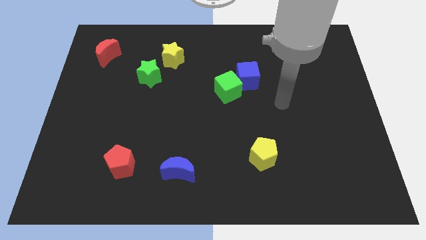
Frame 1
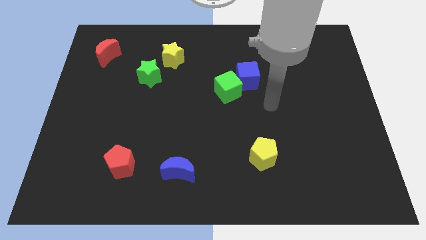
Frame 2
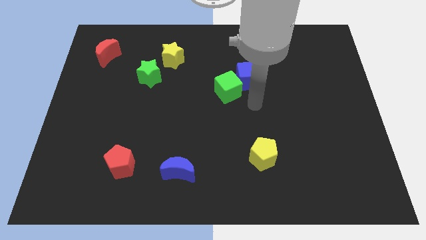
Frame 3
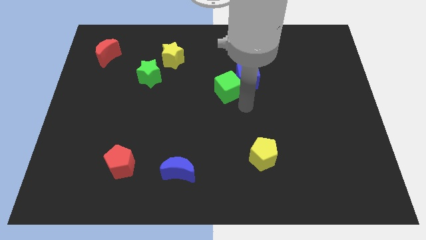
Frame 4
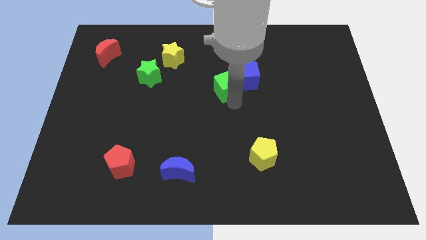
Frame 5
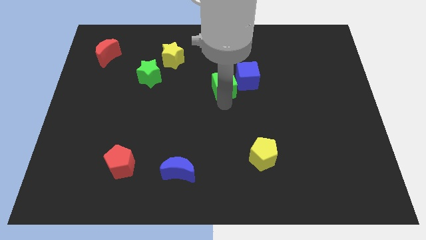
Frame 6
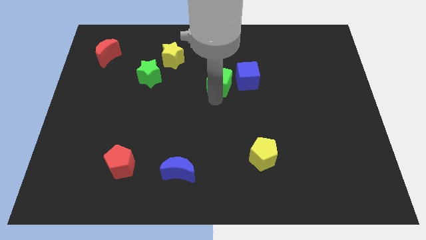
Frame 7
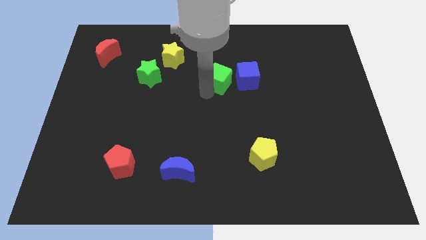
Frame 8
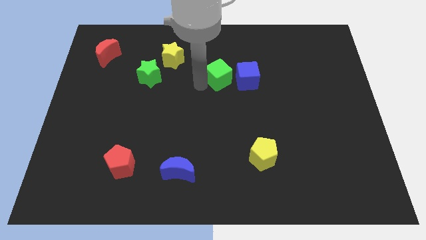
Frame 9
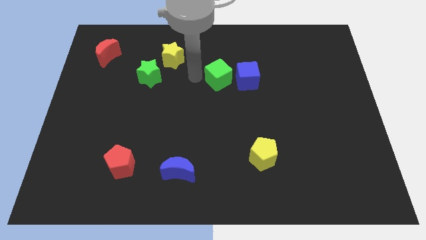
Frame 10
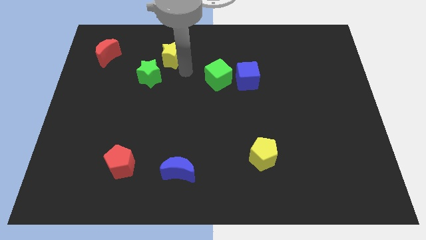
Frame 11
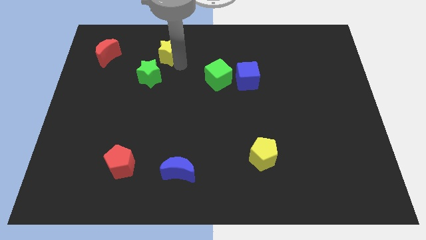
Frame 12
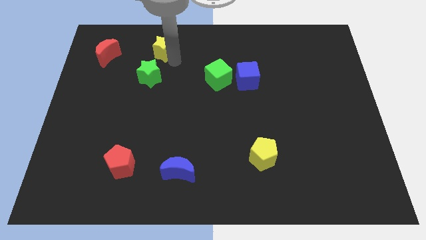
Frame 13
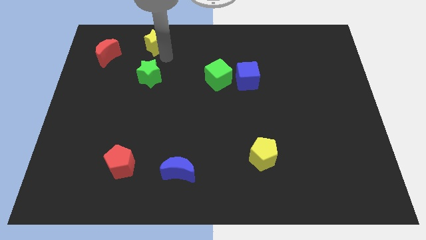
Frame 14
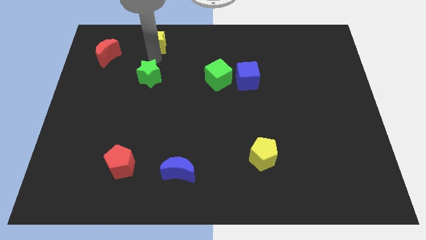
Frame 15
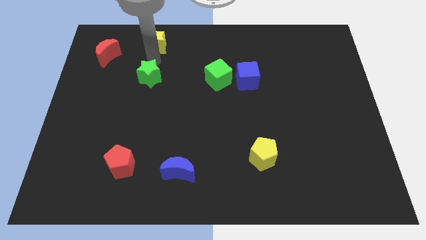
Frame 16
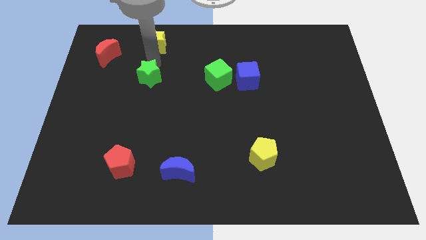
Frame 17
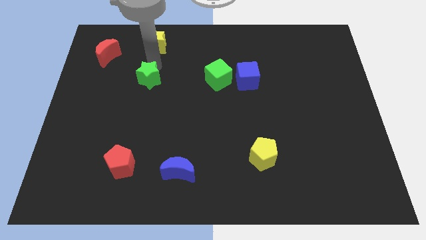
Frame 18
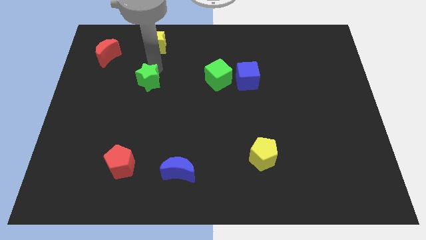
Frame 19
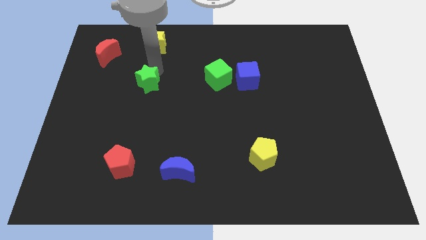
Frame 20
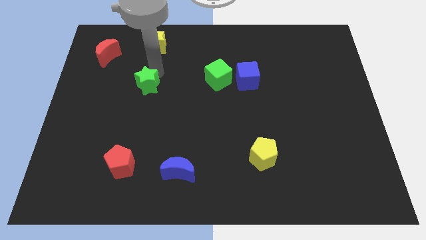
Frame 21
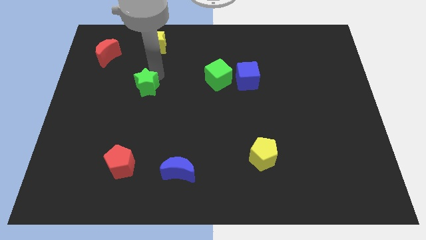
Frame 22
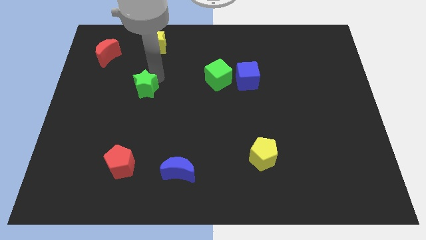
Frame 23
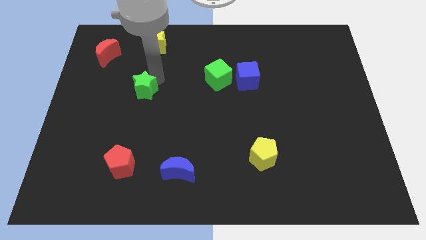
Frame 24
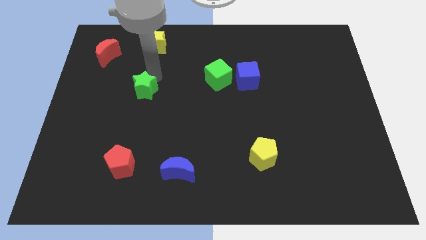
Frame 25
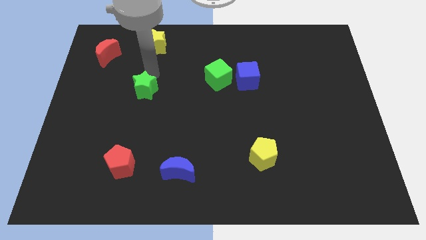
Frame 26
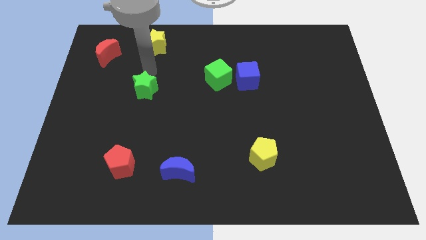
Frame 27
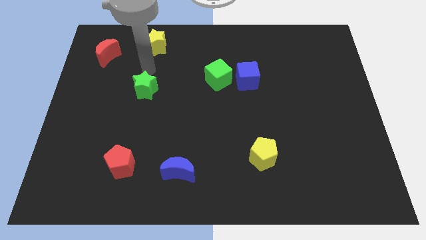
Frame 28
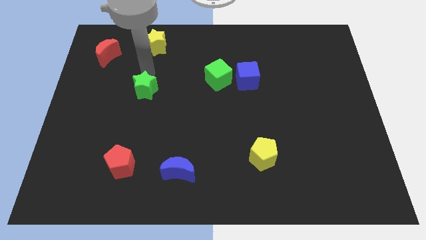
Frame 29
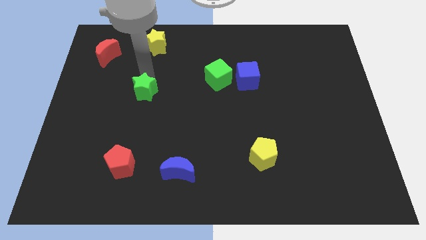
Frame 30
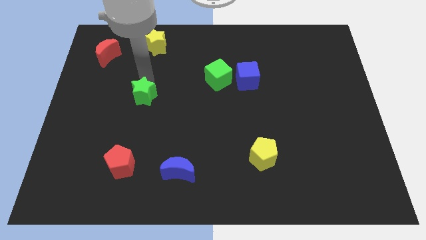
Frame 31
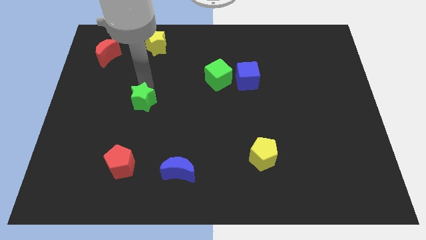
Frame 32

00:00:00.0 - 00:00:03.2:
slightly slide the green star down

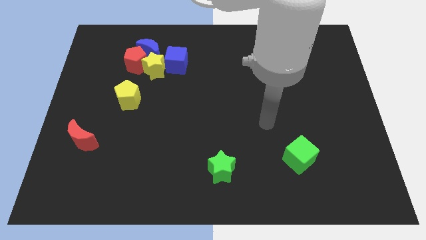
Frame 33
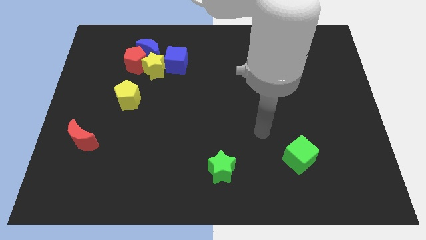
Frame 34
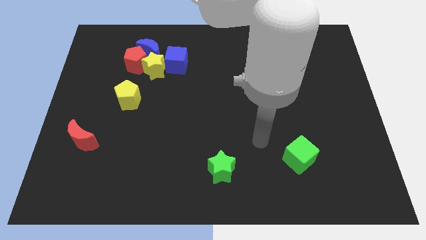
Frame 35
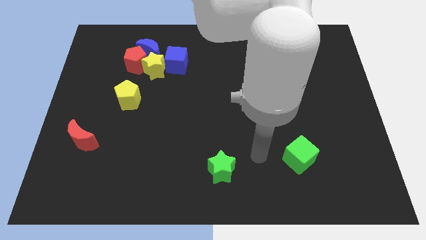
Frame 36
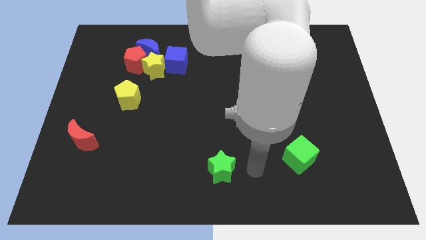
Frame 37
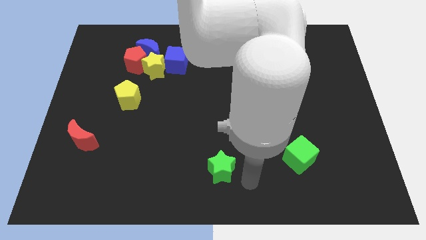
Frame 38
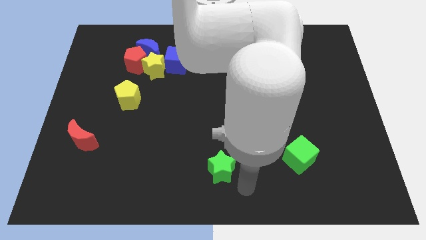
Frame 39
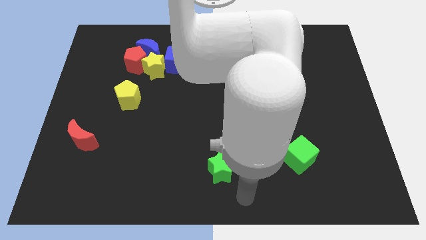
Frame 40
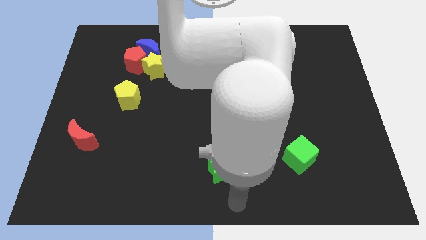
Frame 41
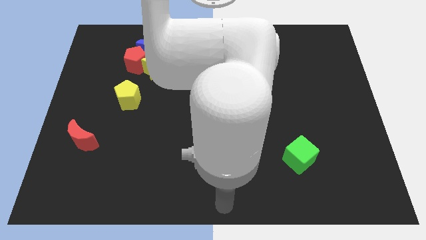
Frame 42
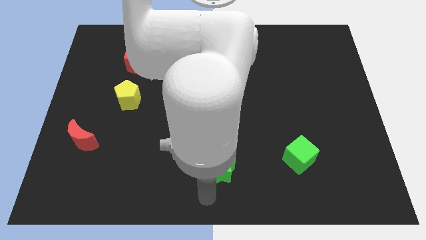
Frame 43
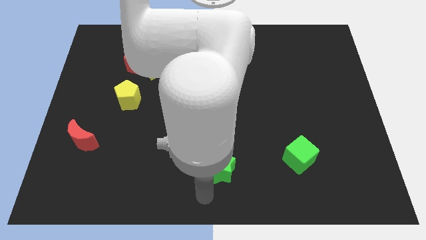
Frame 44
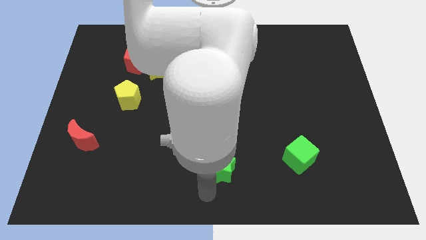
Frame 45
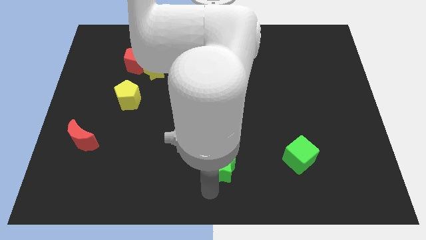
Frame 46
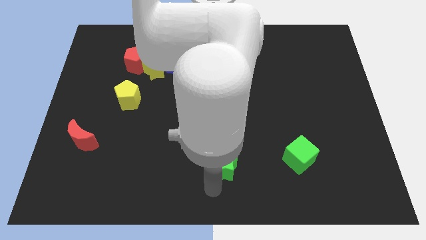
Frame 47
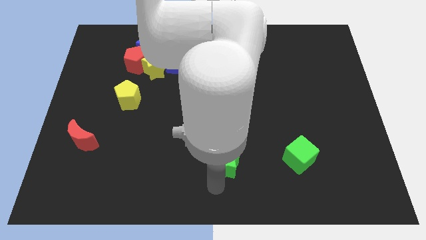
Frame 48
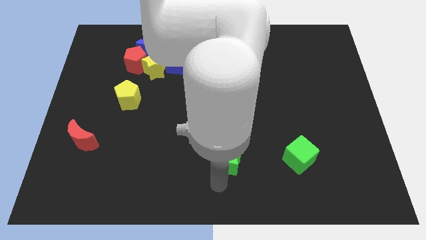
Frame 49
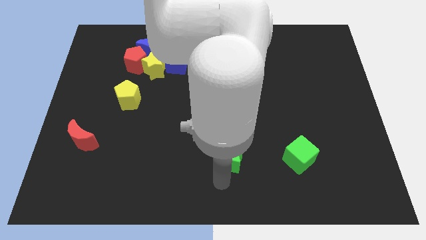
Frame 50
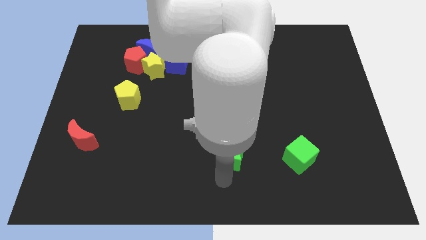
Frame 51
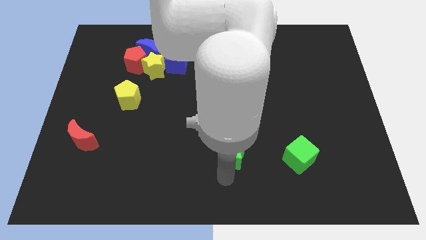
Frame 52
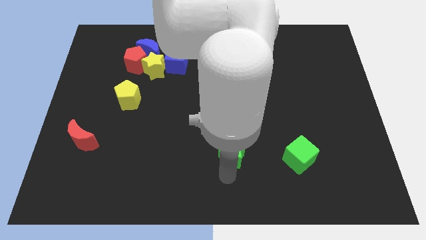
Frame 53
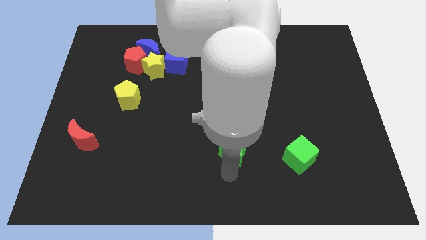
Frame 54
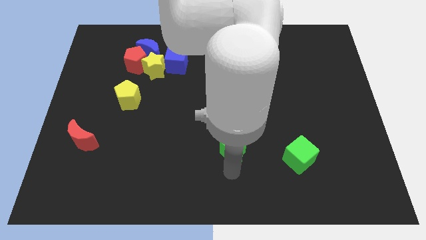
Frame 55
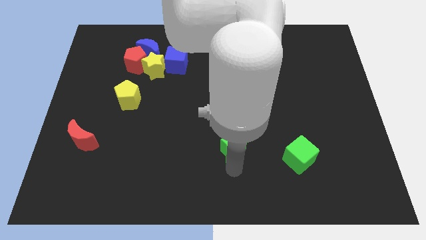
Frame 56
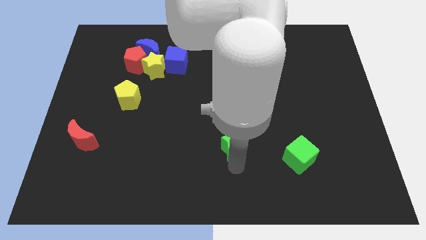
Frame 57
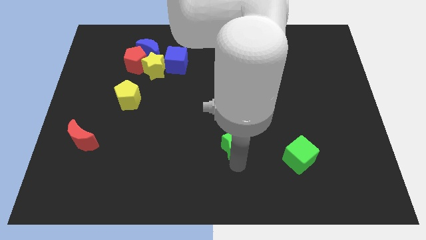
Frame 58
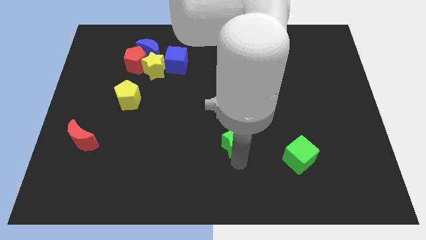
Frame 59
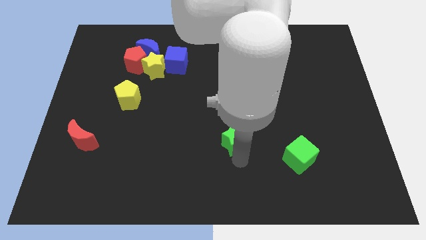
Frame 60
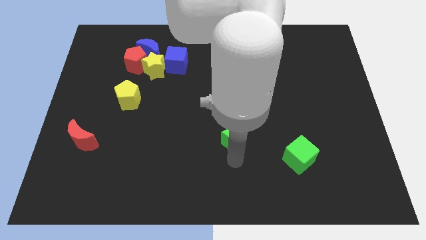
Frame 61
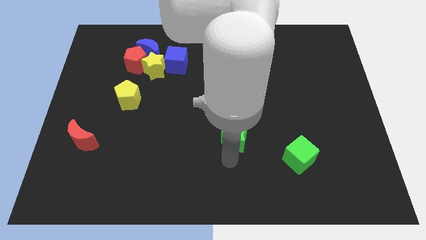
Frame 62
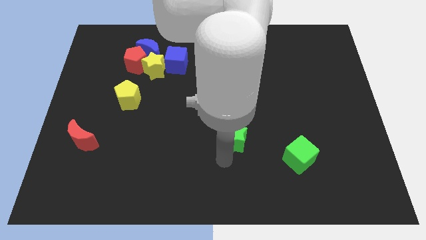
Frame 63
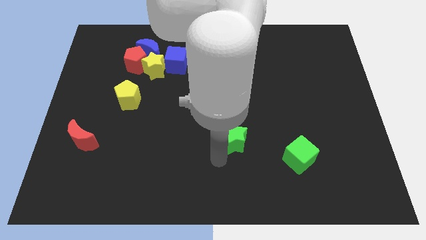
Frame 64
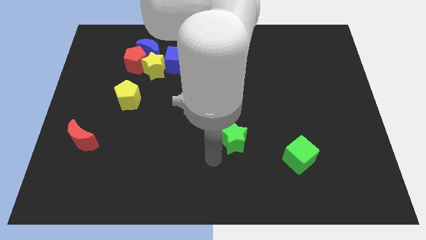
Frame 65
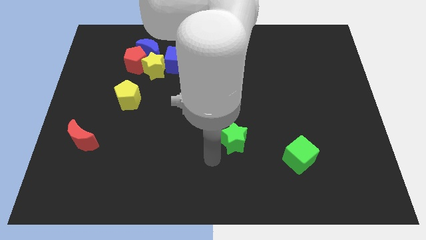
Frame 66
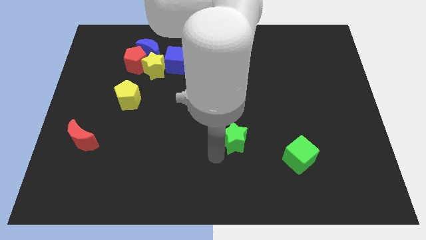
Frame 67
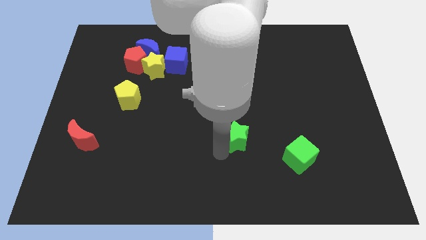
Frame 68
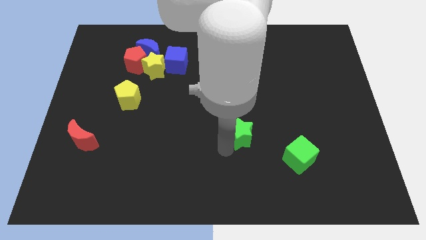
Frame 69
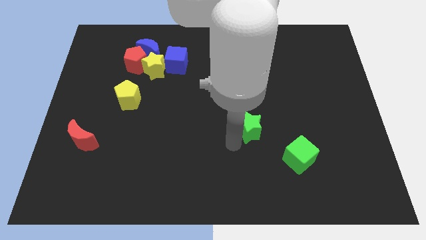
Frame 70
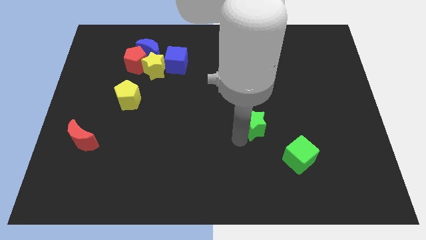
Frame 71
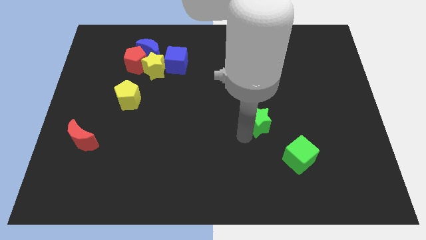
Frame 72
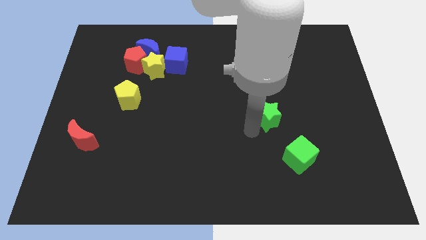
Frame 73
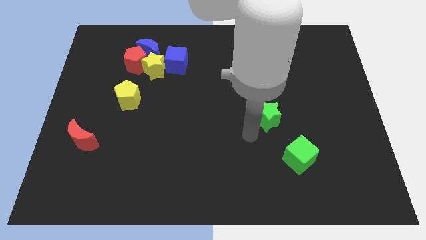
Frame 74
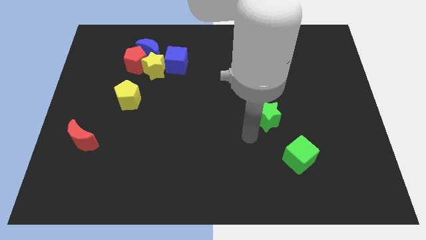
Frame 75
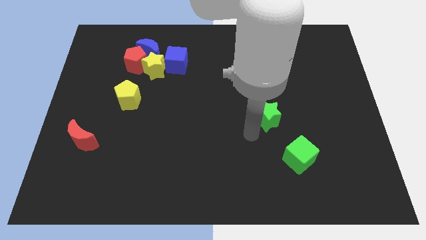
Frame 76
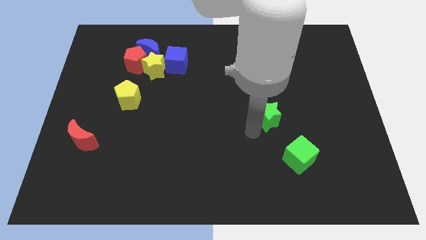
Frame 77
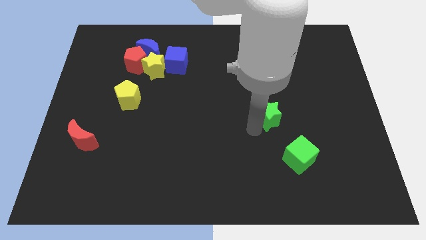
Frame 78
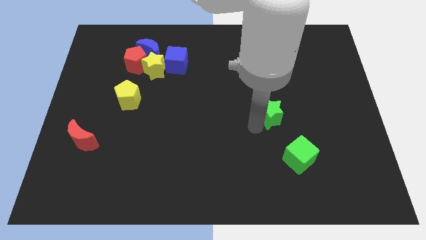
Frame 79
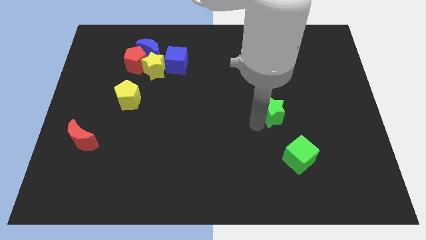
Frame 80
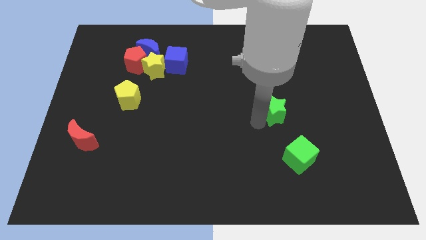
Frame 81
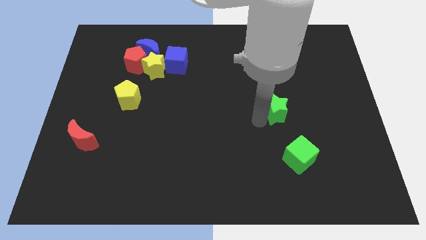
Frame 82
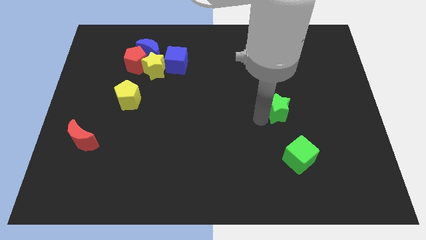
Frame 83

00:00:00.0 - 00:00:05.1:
move the green star up and then right
